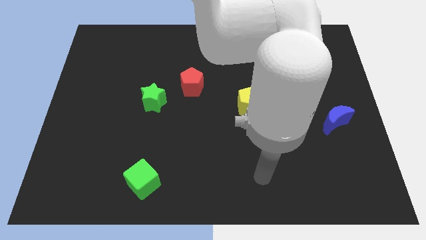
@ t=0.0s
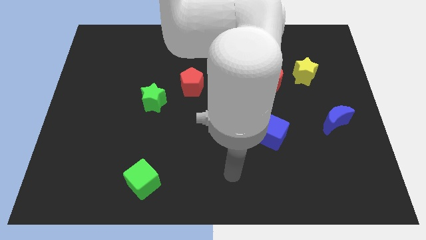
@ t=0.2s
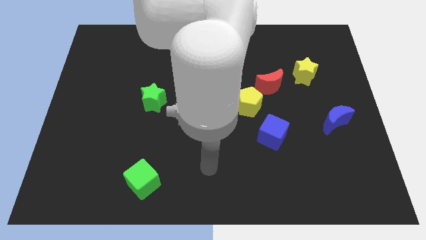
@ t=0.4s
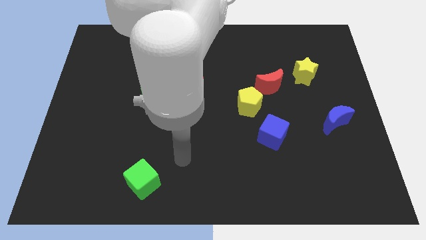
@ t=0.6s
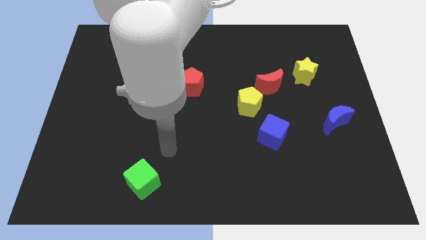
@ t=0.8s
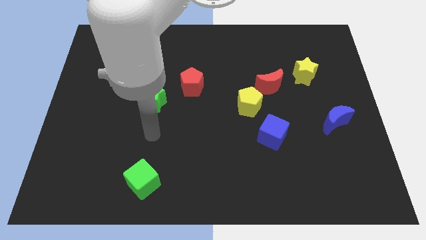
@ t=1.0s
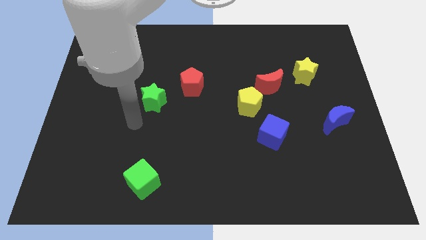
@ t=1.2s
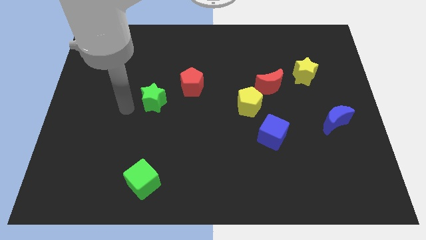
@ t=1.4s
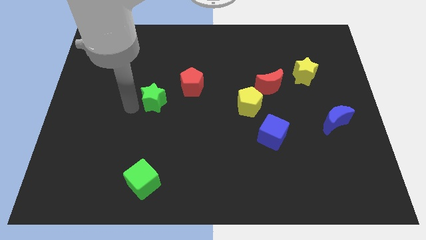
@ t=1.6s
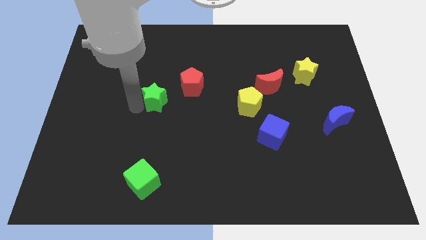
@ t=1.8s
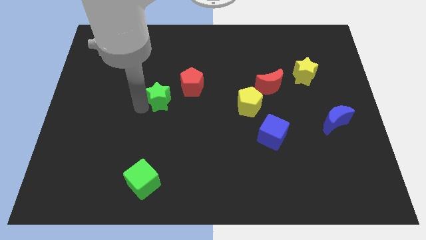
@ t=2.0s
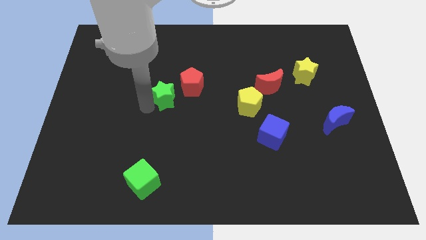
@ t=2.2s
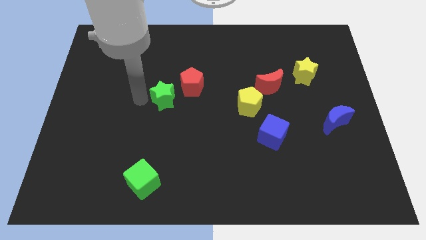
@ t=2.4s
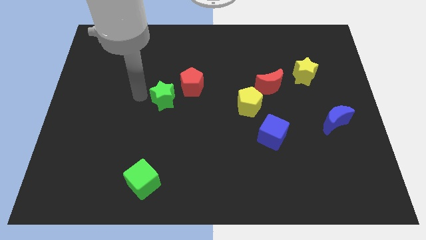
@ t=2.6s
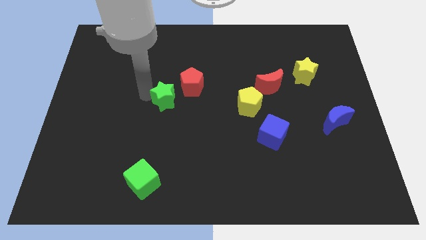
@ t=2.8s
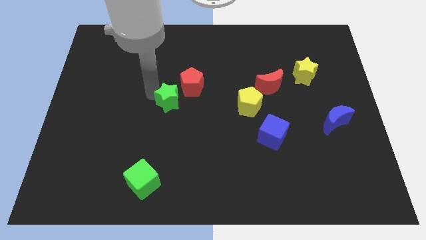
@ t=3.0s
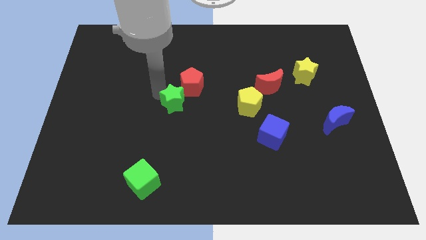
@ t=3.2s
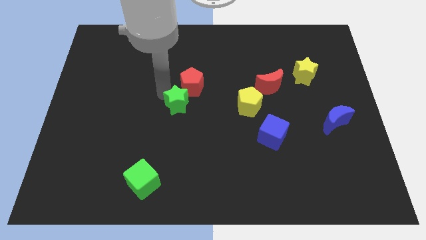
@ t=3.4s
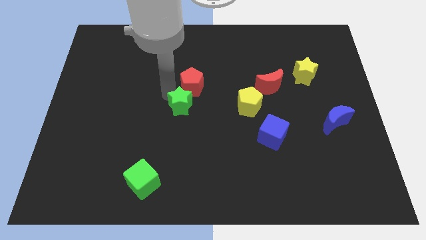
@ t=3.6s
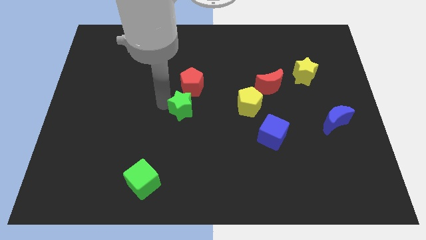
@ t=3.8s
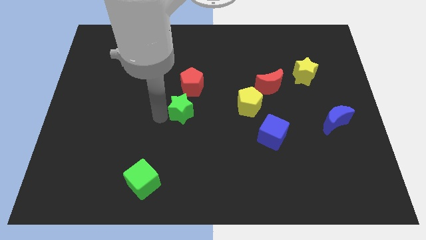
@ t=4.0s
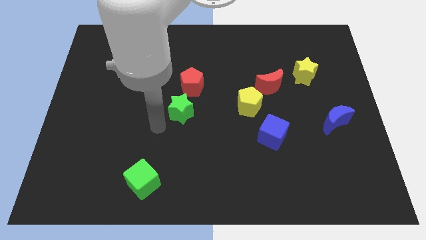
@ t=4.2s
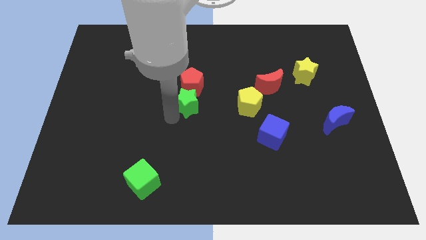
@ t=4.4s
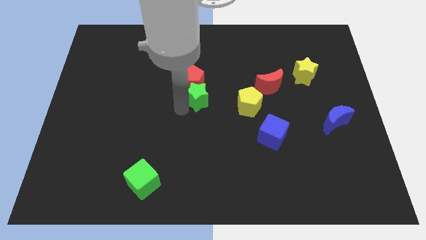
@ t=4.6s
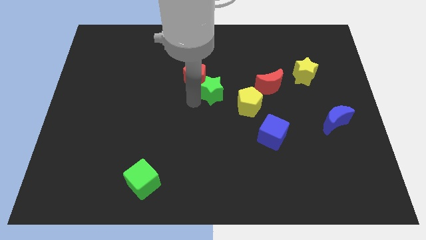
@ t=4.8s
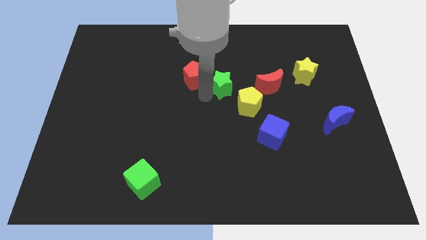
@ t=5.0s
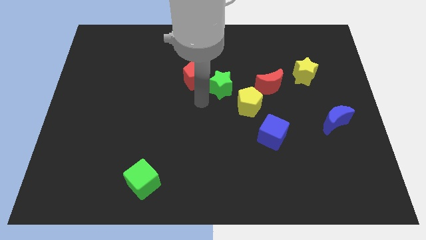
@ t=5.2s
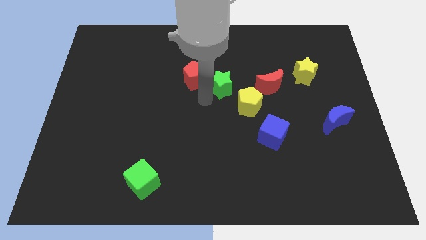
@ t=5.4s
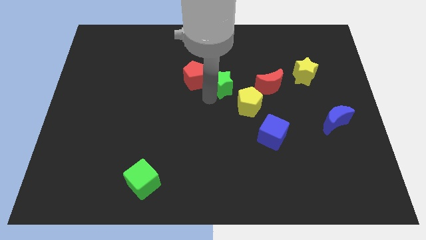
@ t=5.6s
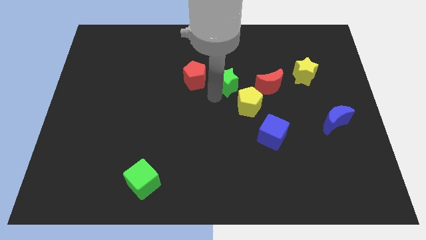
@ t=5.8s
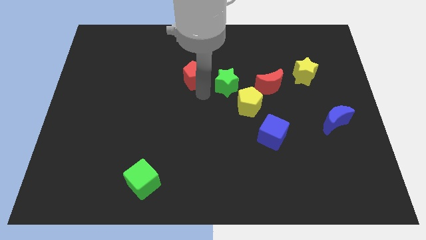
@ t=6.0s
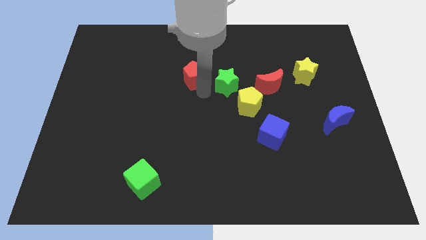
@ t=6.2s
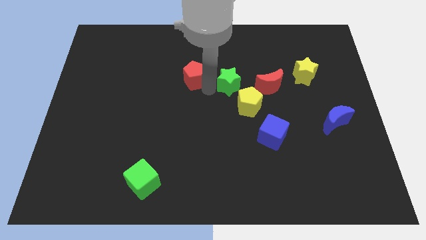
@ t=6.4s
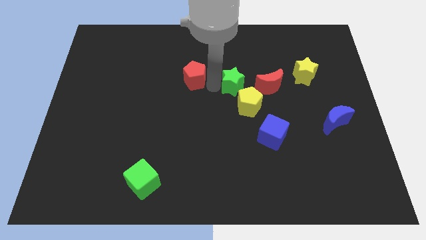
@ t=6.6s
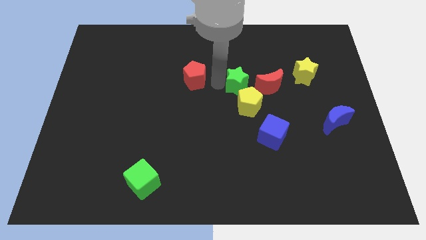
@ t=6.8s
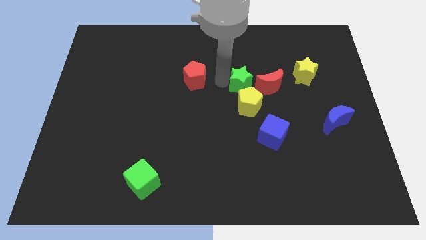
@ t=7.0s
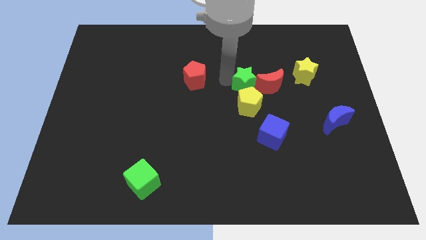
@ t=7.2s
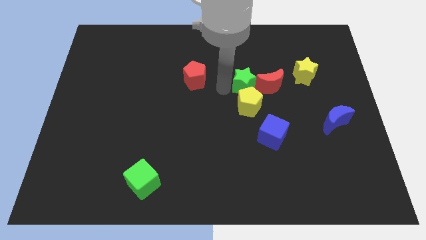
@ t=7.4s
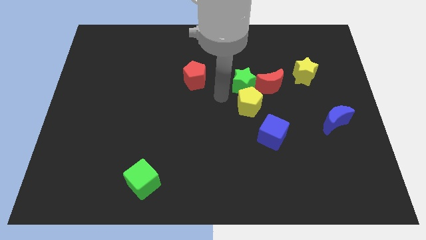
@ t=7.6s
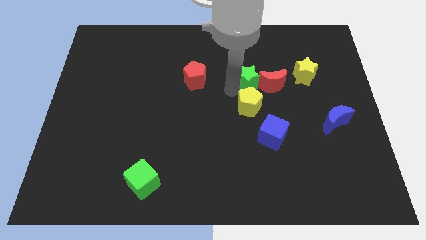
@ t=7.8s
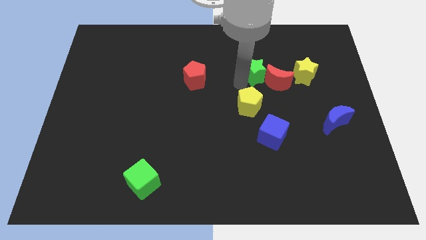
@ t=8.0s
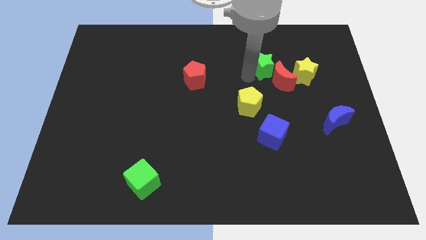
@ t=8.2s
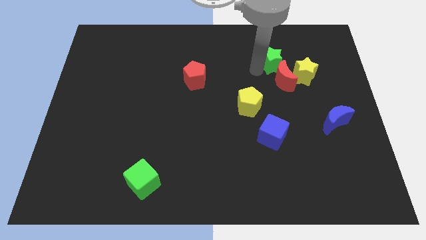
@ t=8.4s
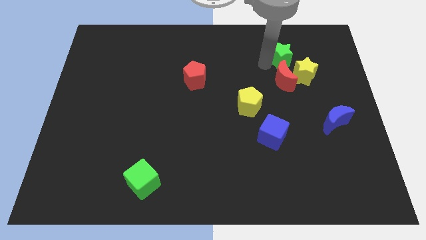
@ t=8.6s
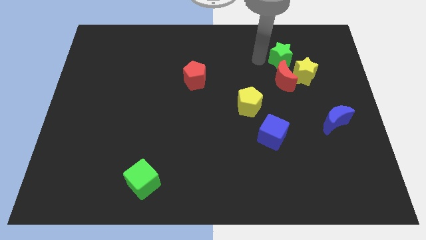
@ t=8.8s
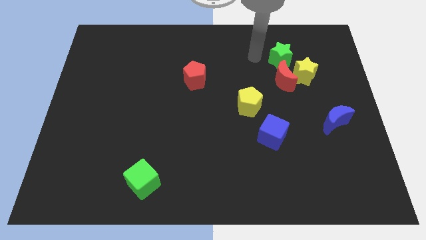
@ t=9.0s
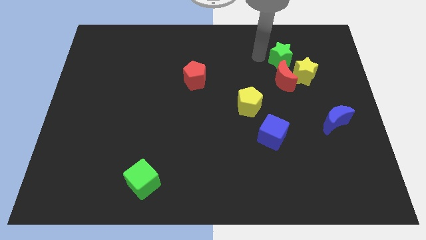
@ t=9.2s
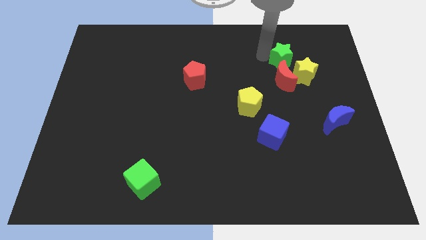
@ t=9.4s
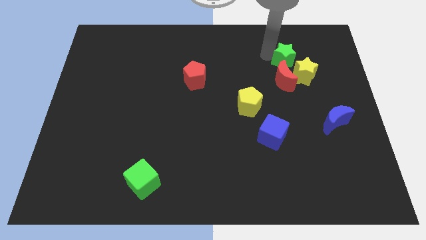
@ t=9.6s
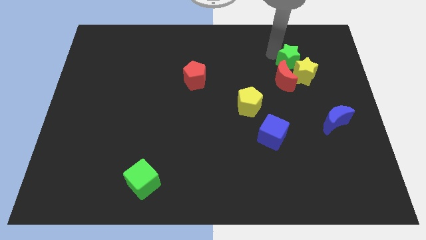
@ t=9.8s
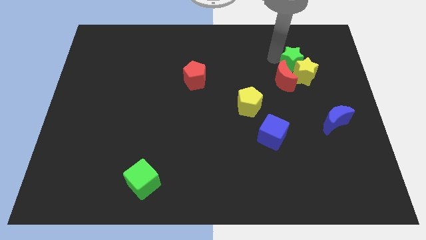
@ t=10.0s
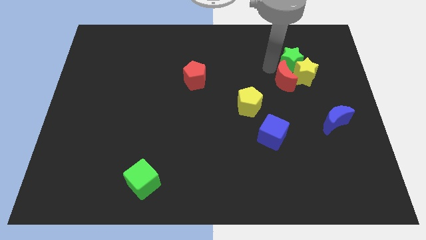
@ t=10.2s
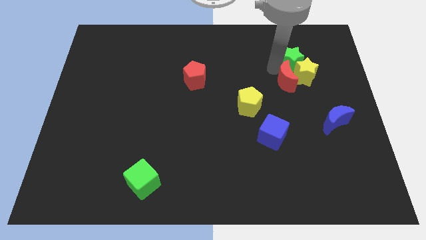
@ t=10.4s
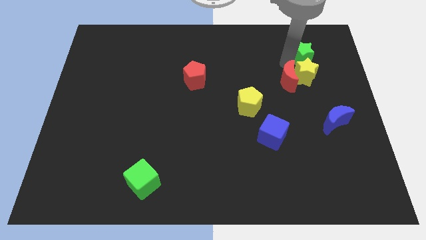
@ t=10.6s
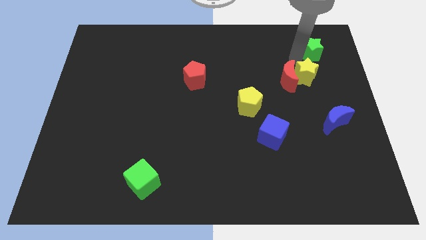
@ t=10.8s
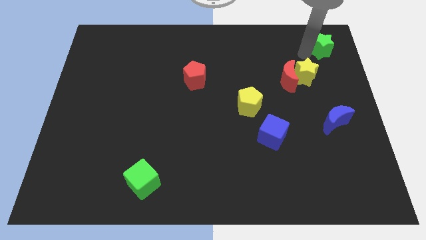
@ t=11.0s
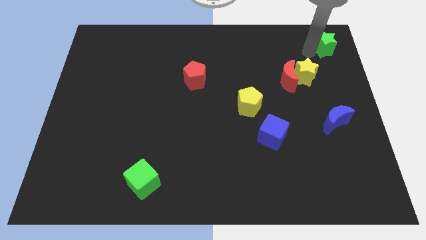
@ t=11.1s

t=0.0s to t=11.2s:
move the green star to the top right corner
